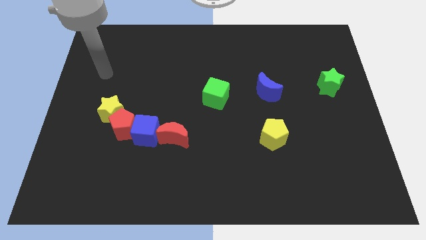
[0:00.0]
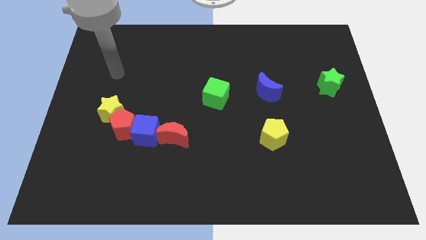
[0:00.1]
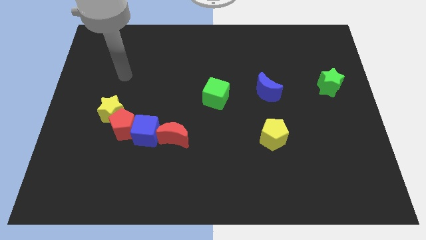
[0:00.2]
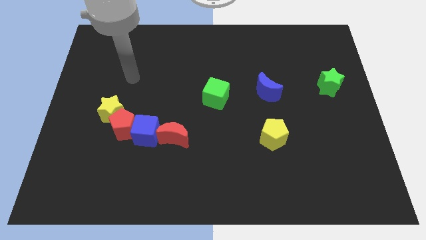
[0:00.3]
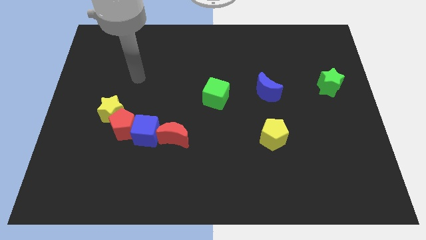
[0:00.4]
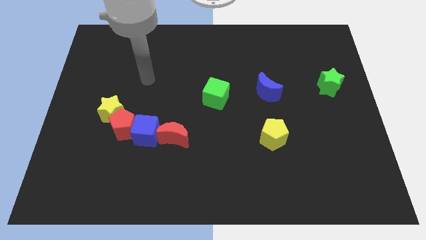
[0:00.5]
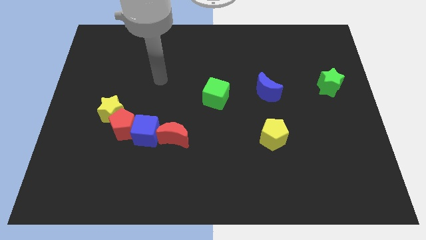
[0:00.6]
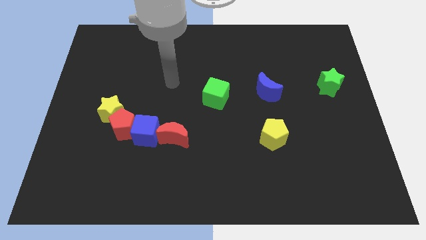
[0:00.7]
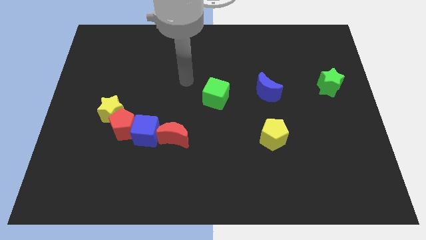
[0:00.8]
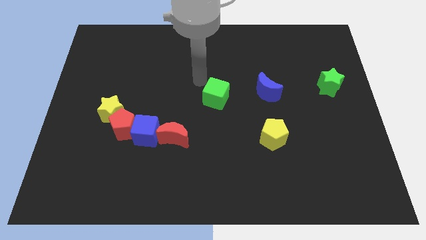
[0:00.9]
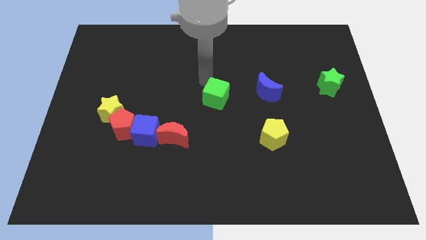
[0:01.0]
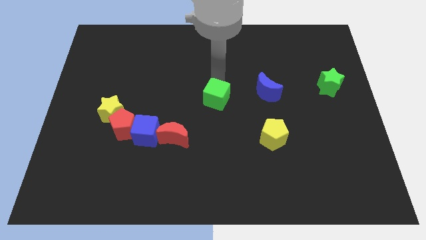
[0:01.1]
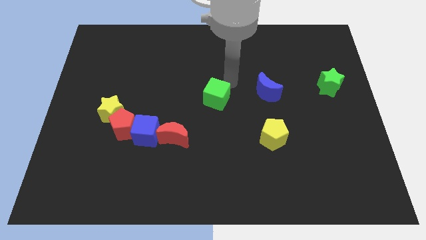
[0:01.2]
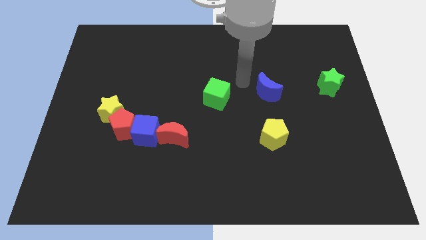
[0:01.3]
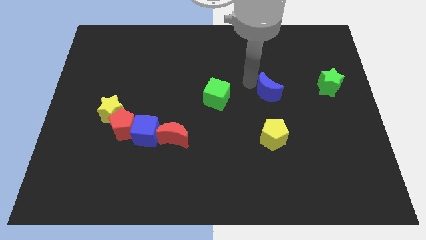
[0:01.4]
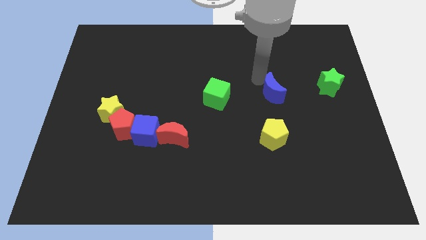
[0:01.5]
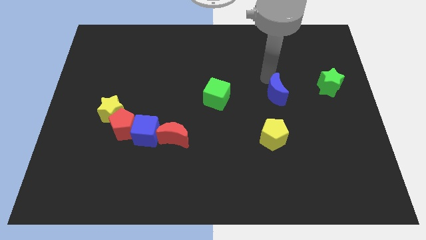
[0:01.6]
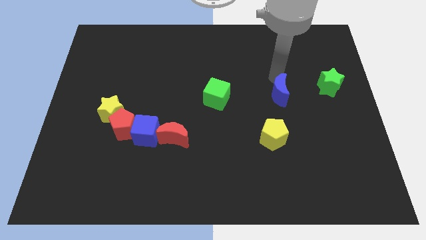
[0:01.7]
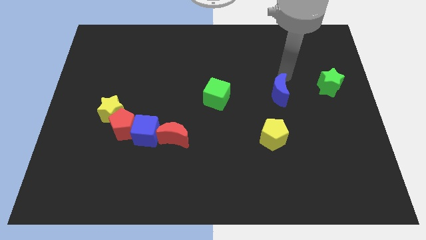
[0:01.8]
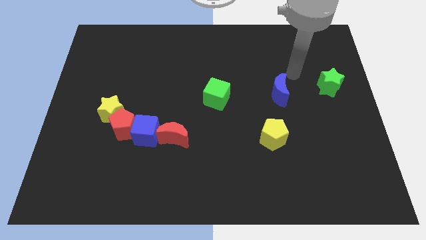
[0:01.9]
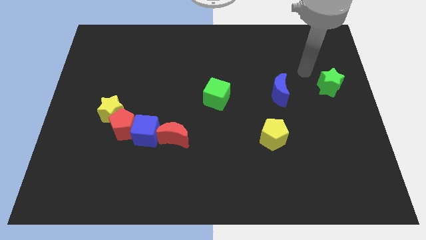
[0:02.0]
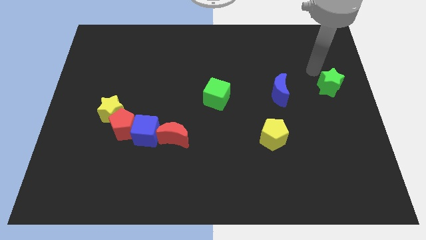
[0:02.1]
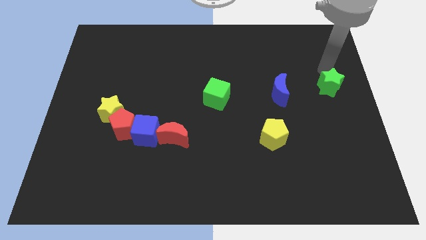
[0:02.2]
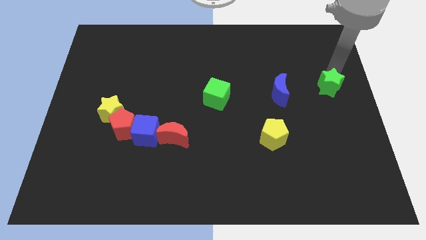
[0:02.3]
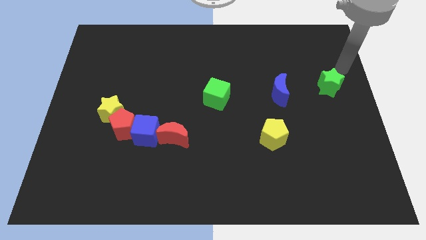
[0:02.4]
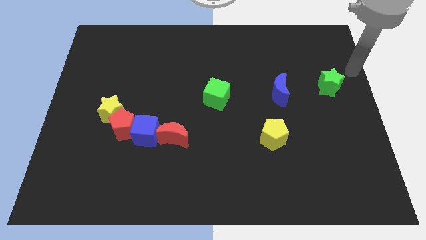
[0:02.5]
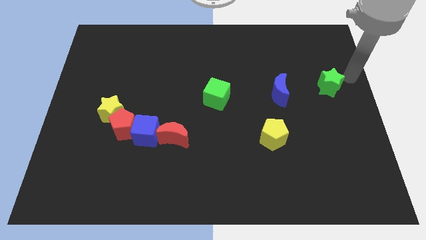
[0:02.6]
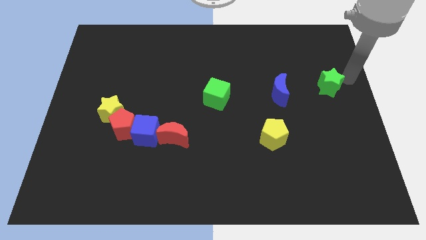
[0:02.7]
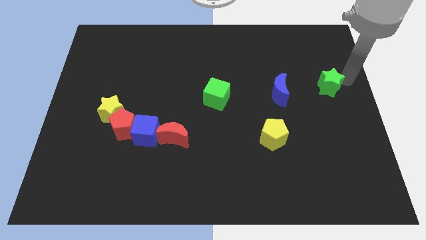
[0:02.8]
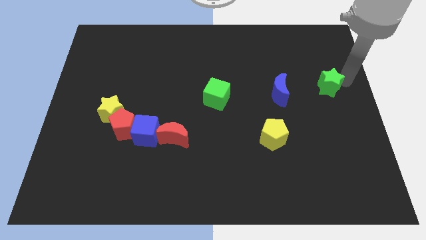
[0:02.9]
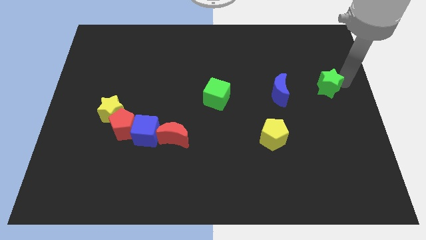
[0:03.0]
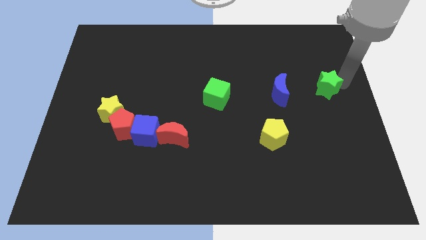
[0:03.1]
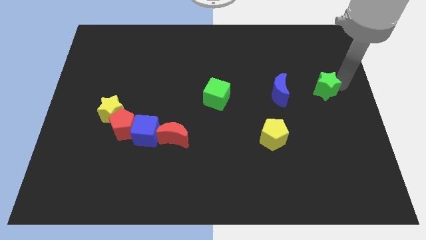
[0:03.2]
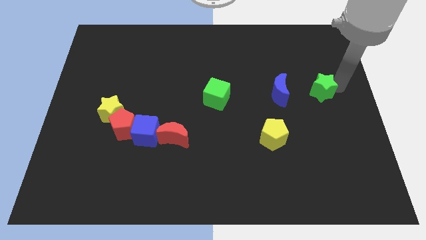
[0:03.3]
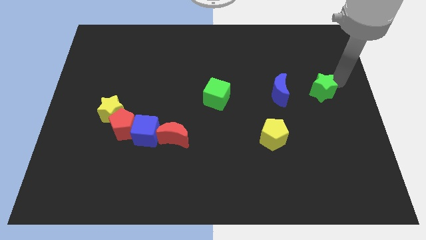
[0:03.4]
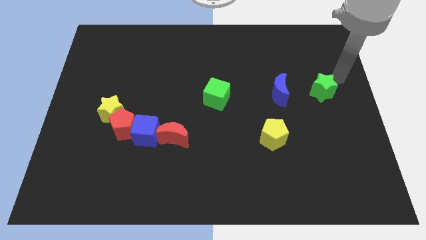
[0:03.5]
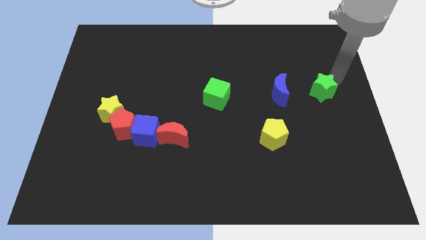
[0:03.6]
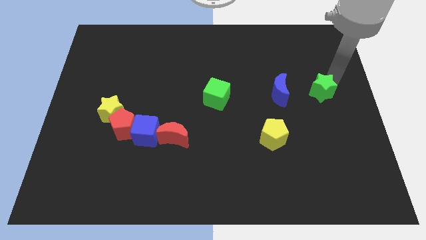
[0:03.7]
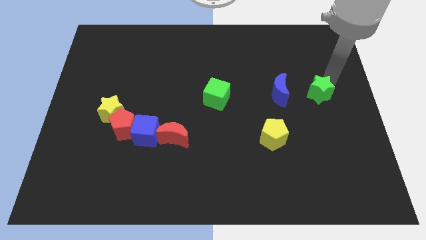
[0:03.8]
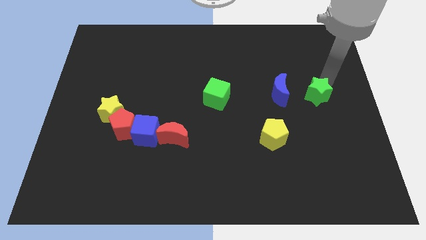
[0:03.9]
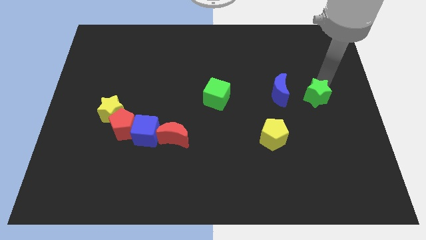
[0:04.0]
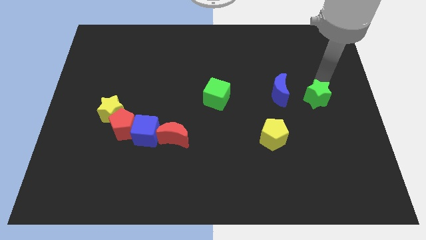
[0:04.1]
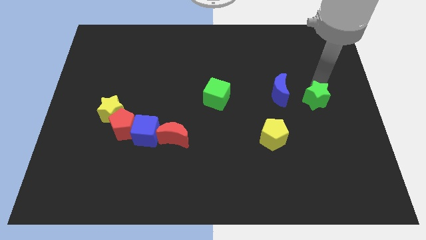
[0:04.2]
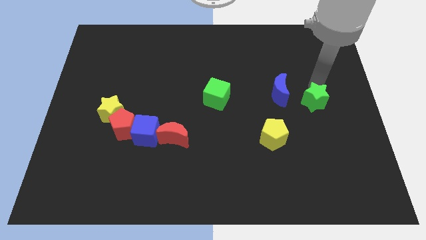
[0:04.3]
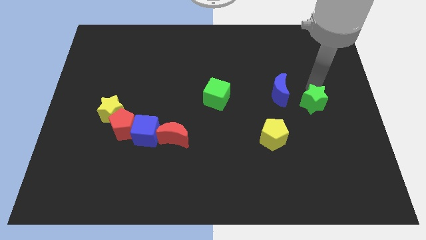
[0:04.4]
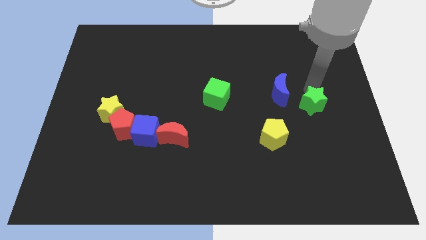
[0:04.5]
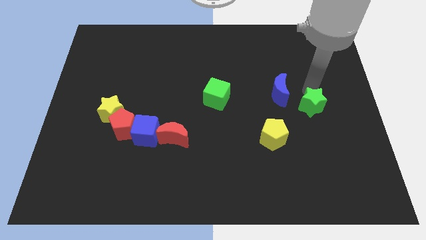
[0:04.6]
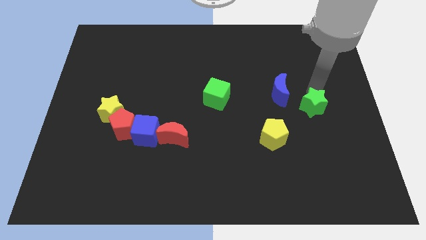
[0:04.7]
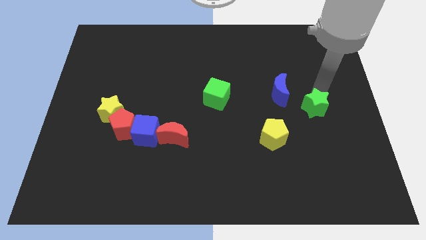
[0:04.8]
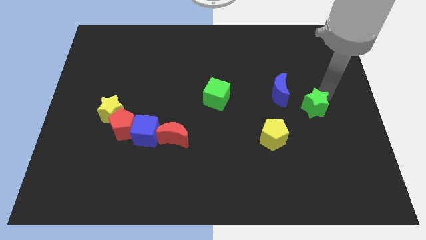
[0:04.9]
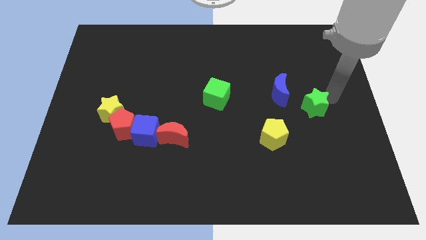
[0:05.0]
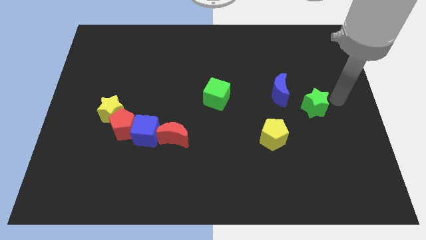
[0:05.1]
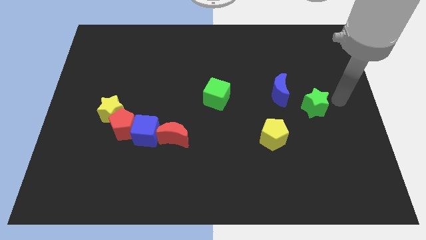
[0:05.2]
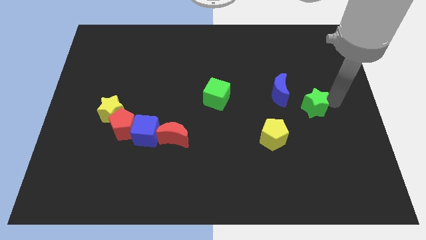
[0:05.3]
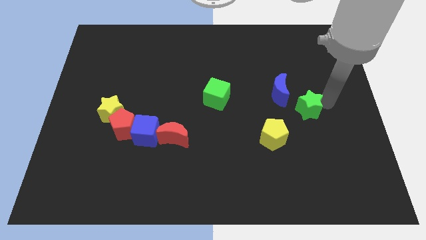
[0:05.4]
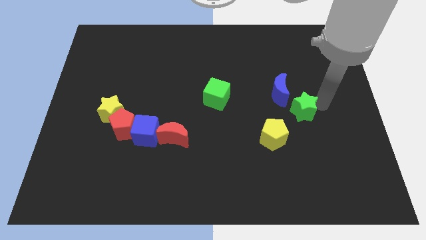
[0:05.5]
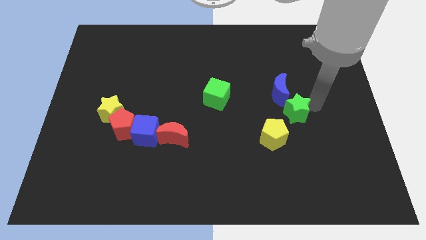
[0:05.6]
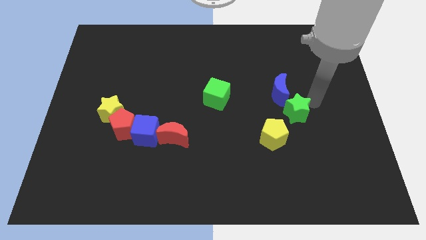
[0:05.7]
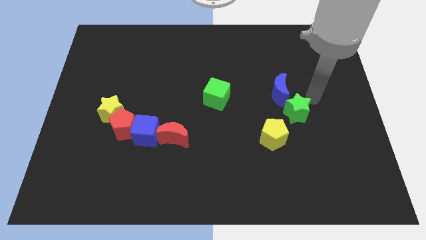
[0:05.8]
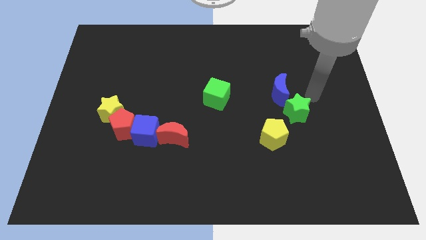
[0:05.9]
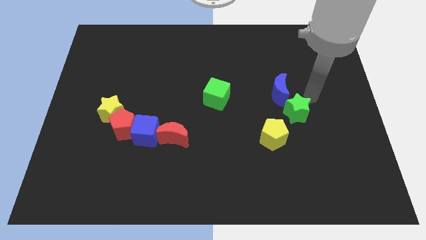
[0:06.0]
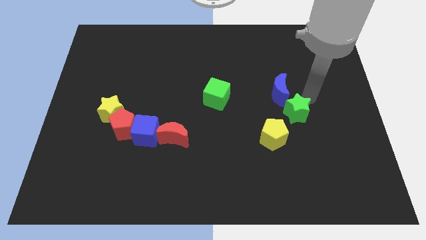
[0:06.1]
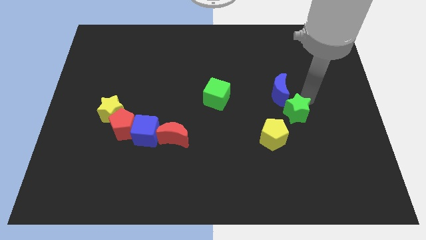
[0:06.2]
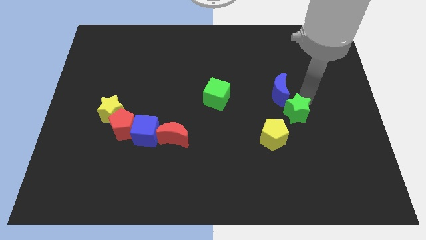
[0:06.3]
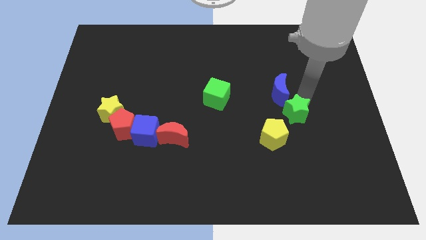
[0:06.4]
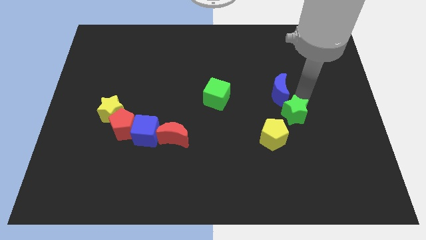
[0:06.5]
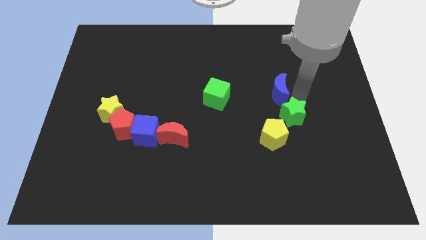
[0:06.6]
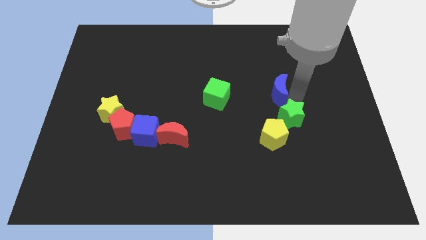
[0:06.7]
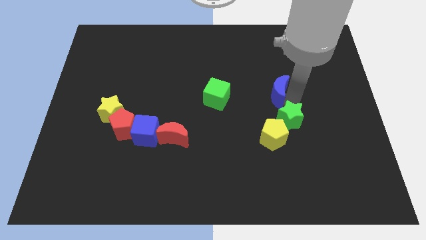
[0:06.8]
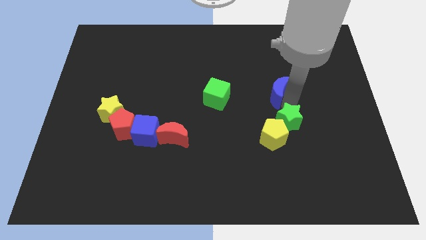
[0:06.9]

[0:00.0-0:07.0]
push the green star next to the yellow pentagon

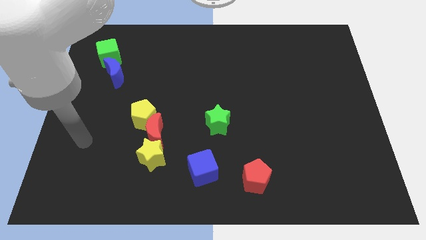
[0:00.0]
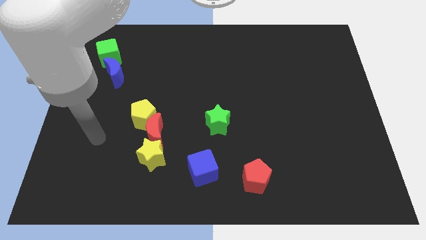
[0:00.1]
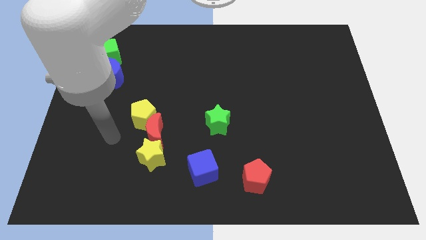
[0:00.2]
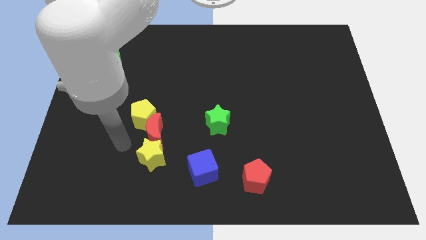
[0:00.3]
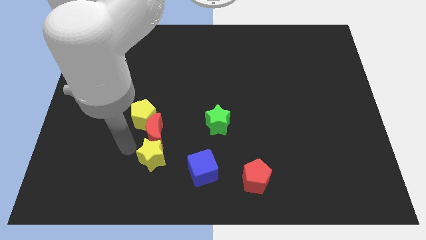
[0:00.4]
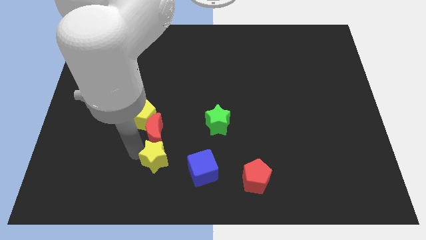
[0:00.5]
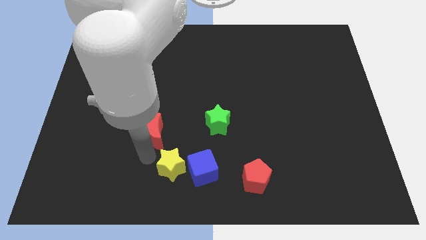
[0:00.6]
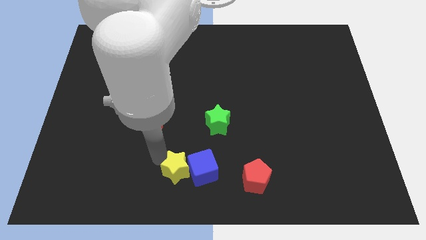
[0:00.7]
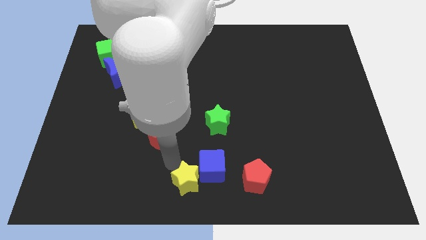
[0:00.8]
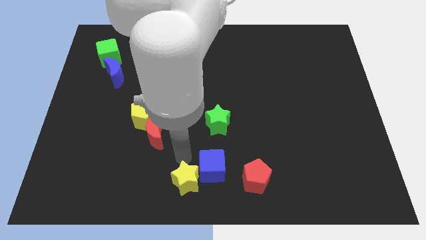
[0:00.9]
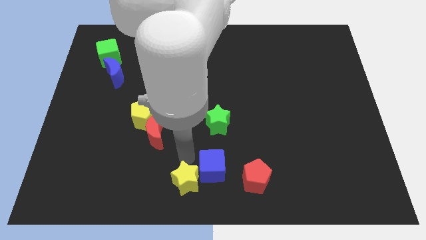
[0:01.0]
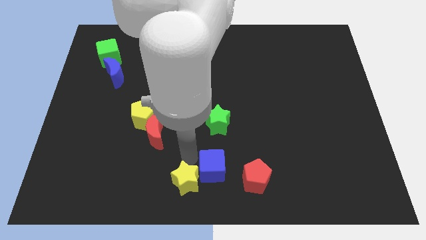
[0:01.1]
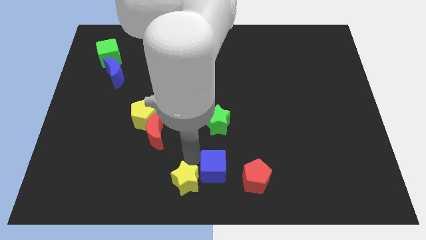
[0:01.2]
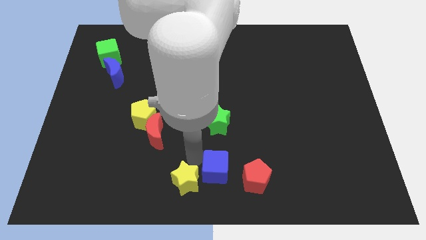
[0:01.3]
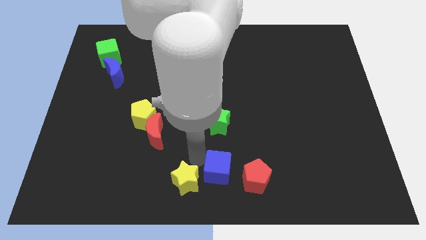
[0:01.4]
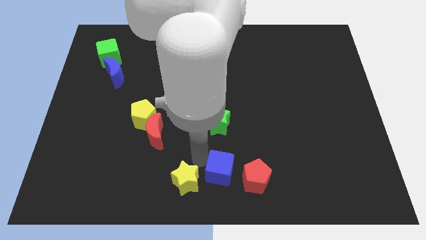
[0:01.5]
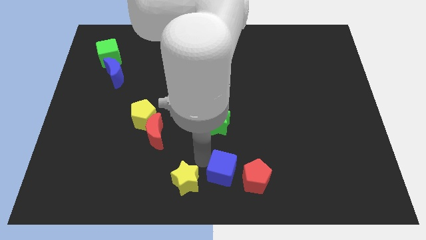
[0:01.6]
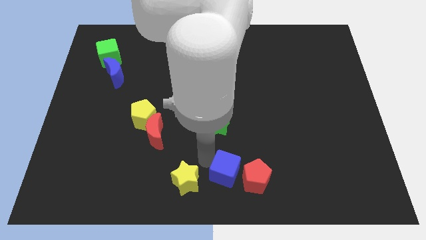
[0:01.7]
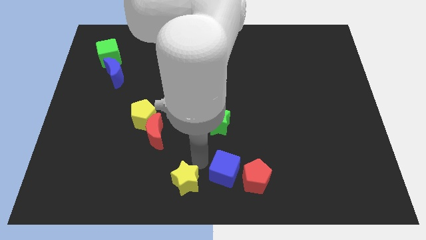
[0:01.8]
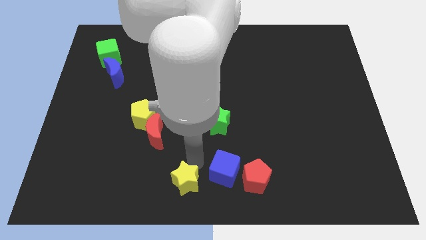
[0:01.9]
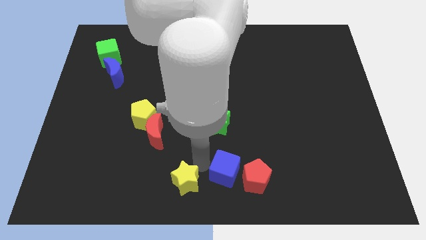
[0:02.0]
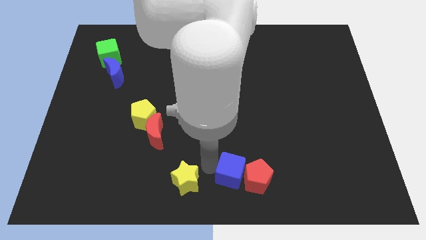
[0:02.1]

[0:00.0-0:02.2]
move the blue cube to the red pentagon
